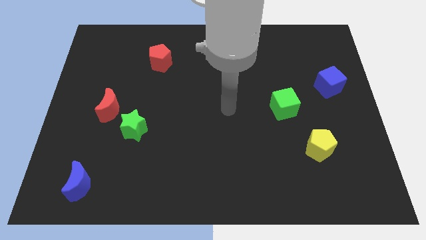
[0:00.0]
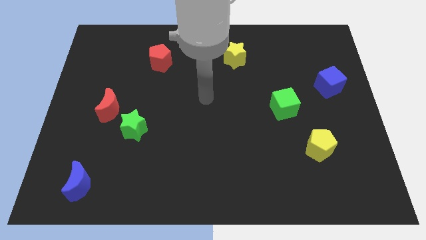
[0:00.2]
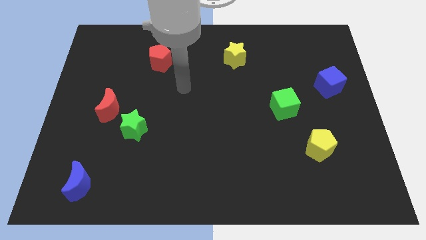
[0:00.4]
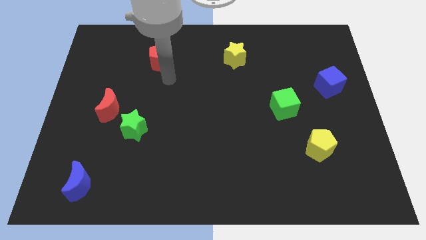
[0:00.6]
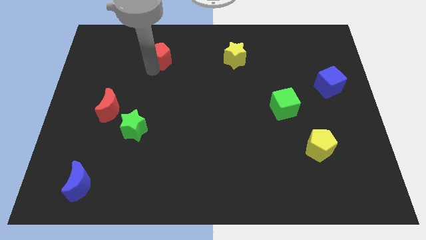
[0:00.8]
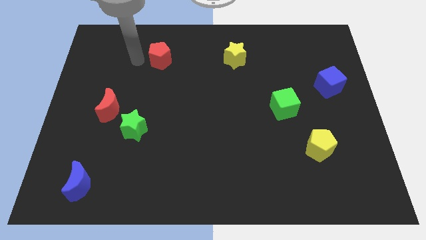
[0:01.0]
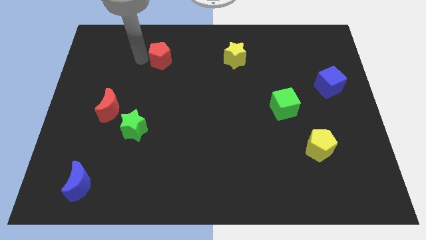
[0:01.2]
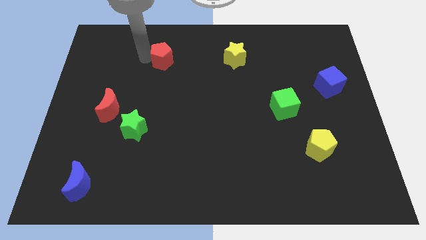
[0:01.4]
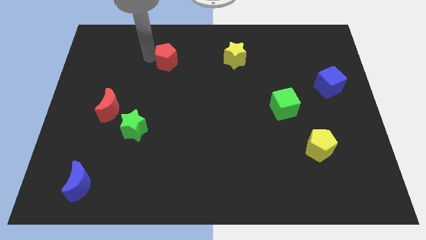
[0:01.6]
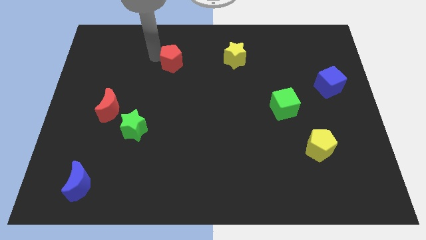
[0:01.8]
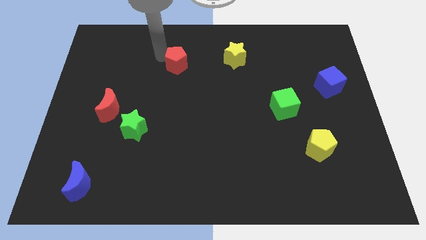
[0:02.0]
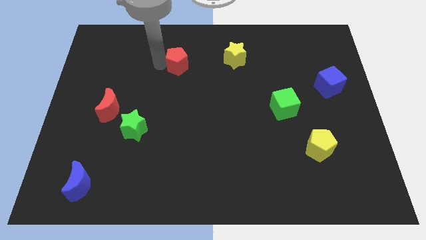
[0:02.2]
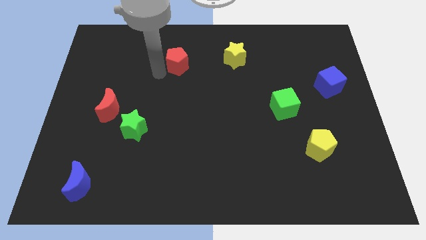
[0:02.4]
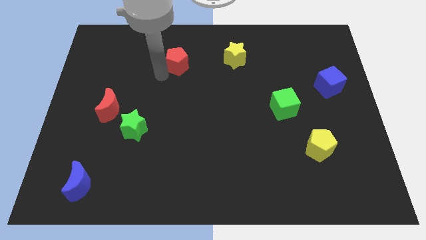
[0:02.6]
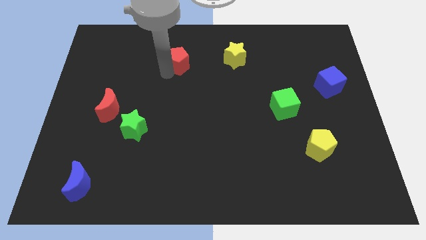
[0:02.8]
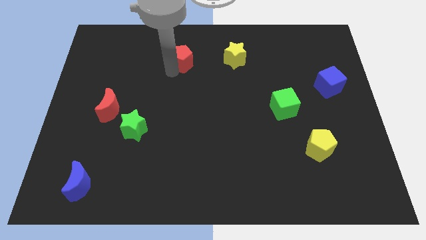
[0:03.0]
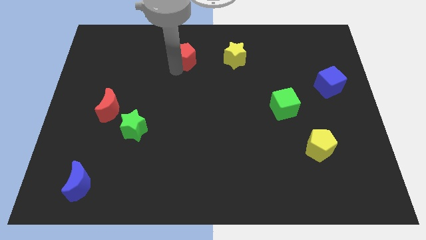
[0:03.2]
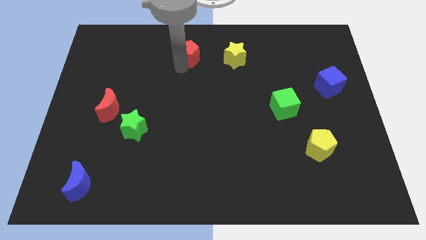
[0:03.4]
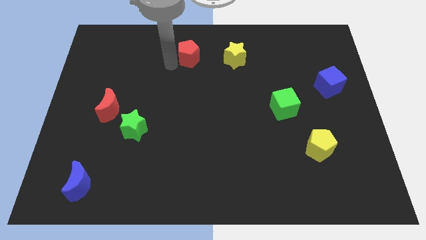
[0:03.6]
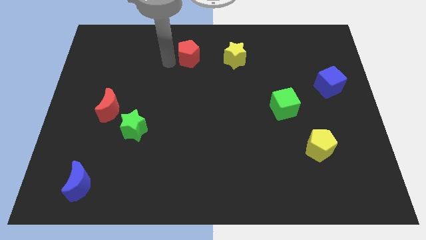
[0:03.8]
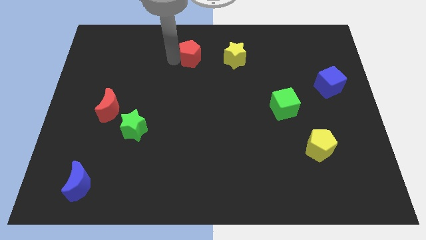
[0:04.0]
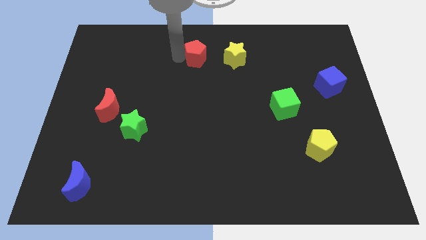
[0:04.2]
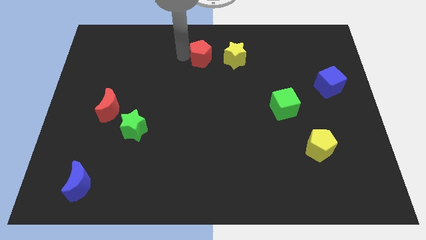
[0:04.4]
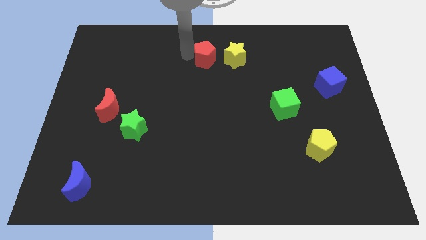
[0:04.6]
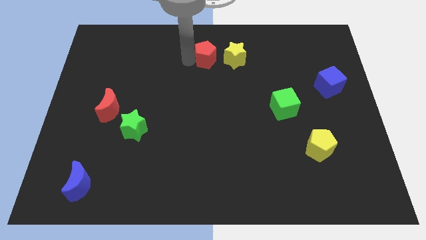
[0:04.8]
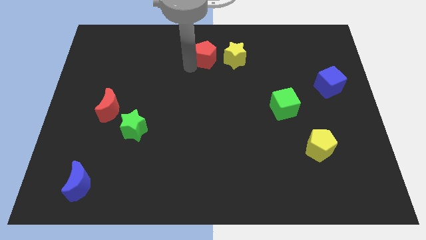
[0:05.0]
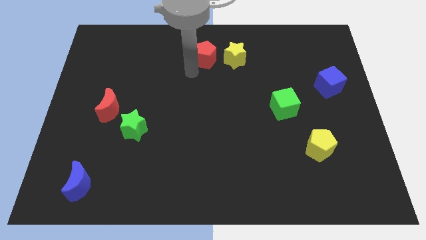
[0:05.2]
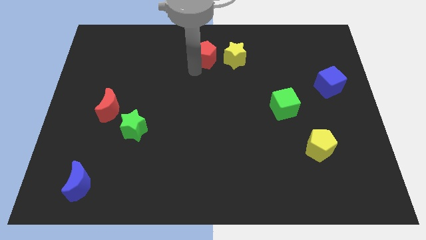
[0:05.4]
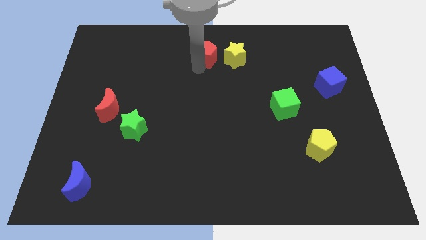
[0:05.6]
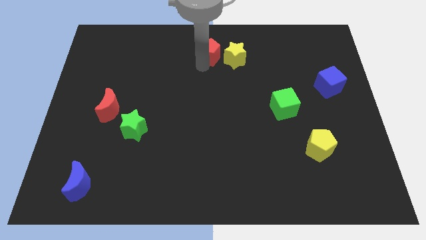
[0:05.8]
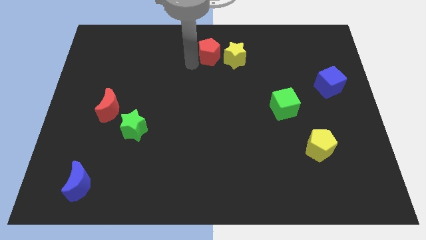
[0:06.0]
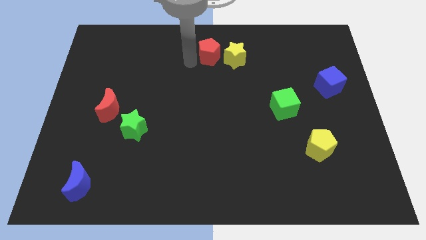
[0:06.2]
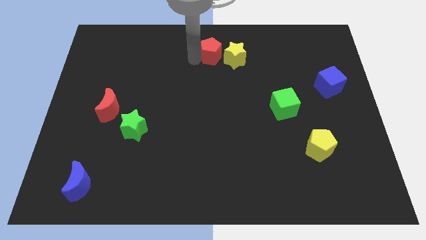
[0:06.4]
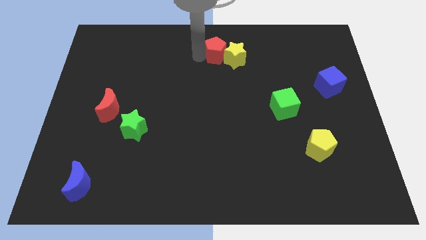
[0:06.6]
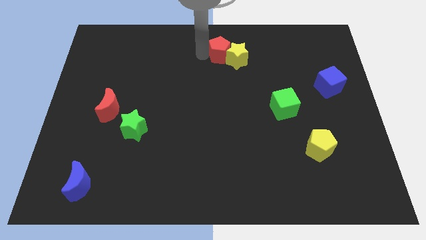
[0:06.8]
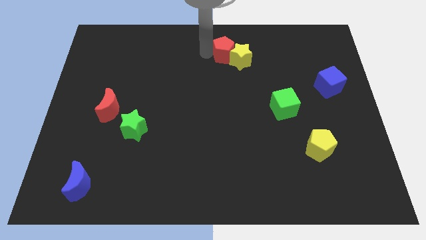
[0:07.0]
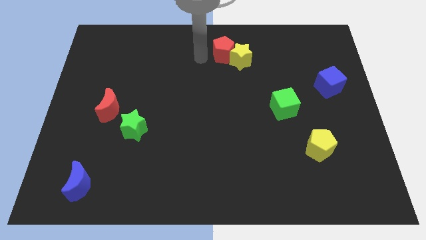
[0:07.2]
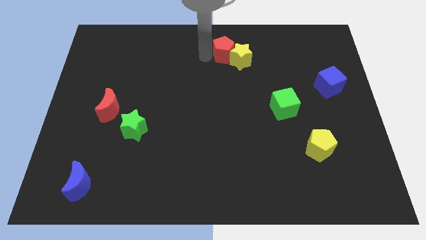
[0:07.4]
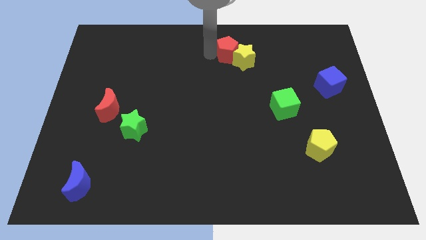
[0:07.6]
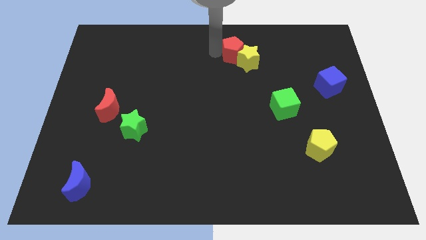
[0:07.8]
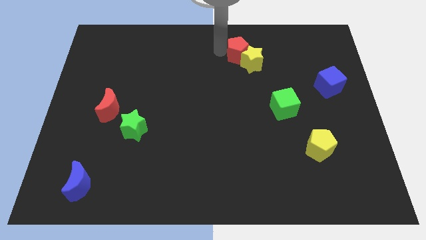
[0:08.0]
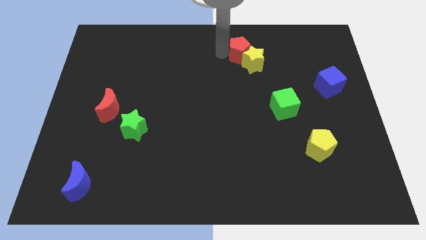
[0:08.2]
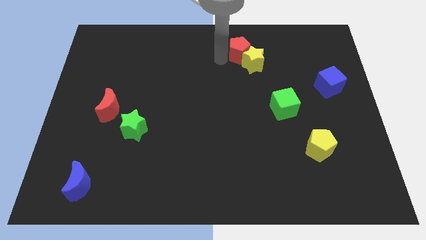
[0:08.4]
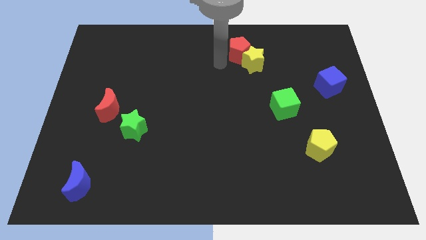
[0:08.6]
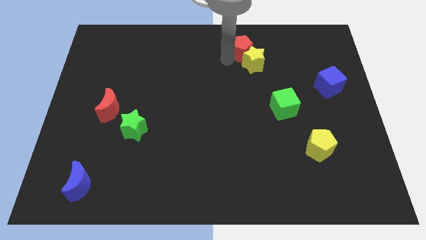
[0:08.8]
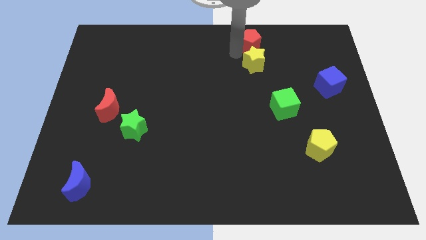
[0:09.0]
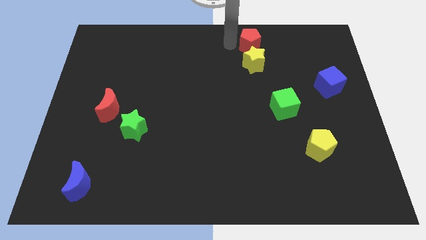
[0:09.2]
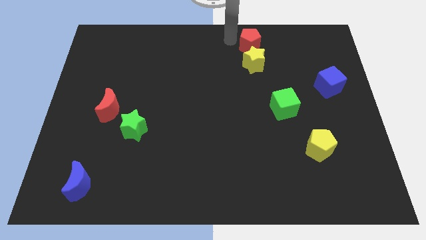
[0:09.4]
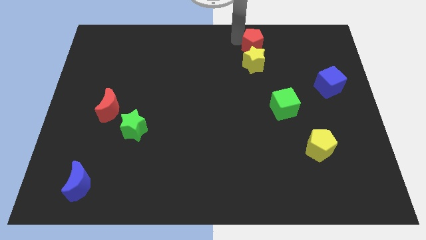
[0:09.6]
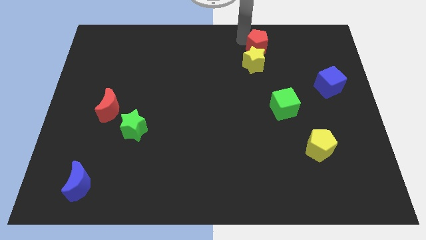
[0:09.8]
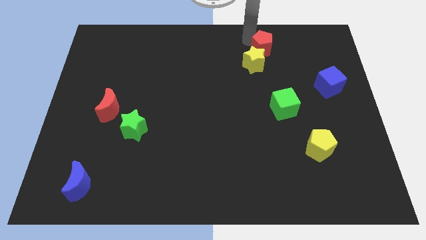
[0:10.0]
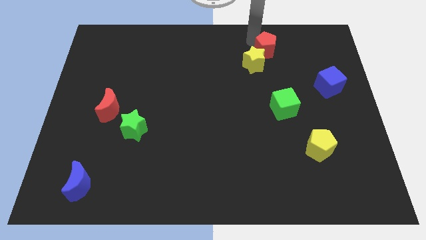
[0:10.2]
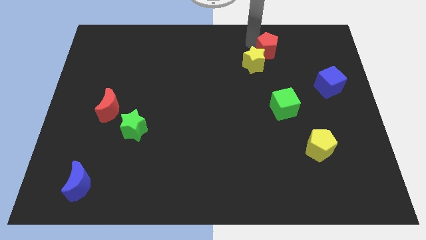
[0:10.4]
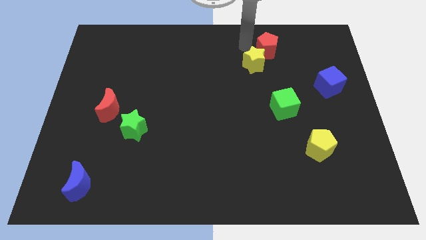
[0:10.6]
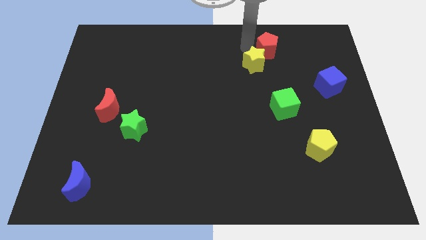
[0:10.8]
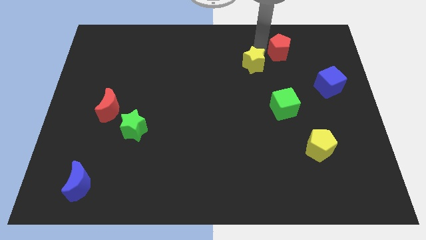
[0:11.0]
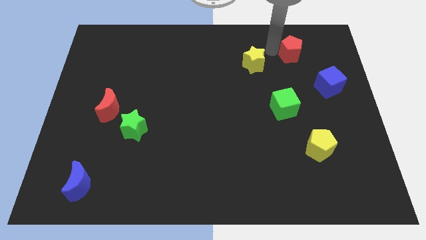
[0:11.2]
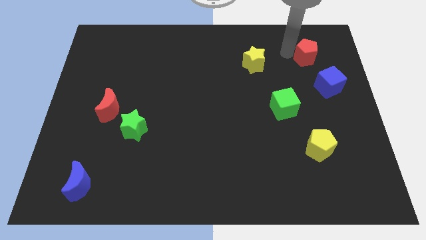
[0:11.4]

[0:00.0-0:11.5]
push the red pentagon above the blue cube

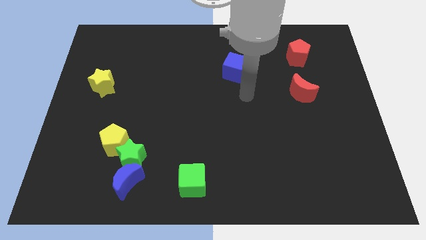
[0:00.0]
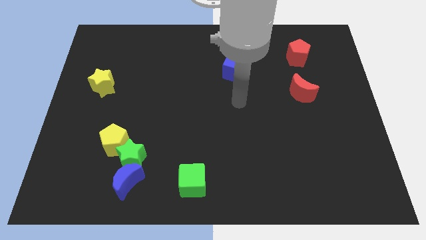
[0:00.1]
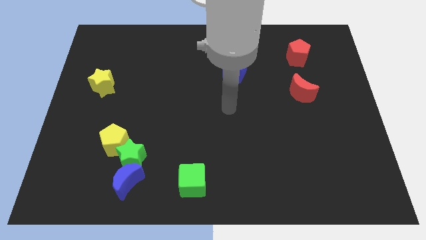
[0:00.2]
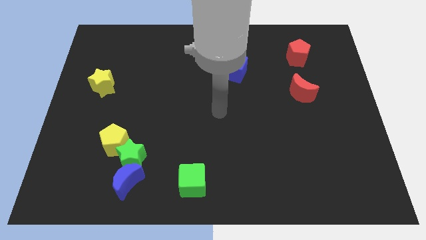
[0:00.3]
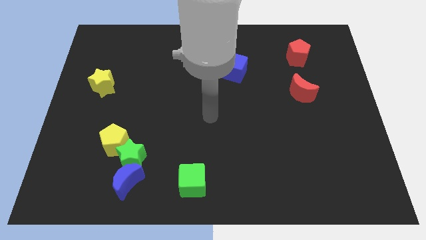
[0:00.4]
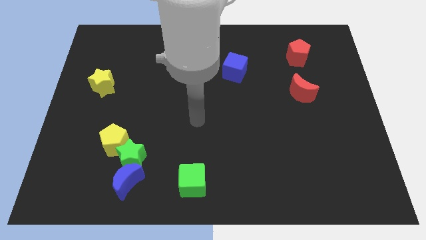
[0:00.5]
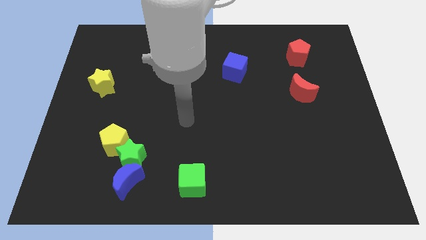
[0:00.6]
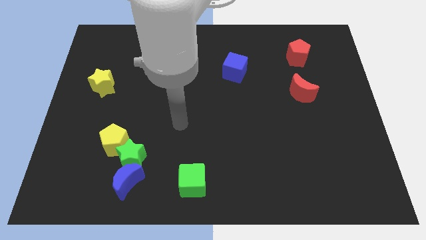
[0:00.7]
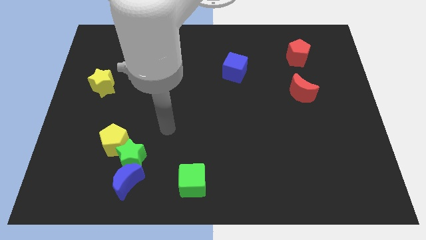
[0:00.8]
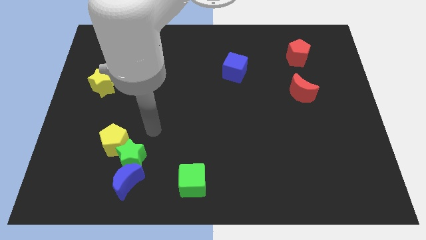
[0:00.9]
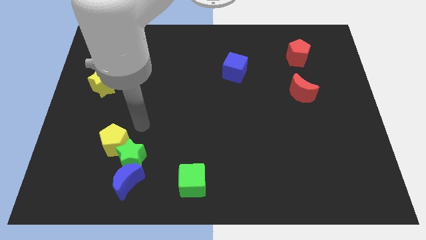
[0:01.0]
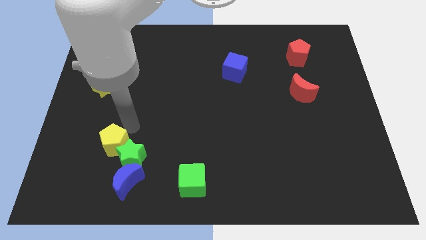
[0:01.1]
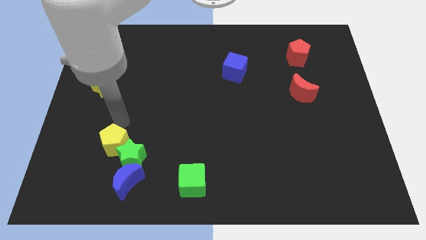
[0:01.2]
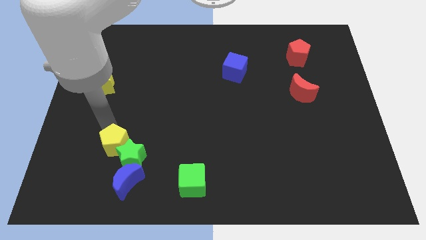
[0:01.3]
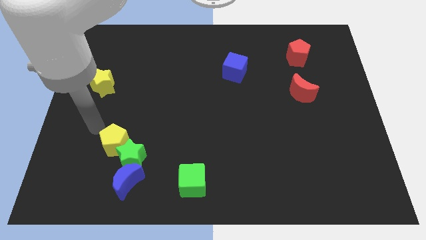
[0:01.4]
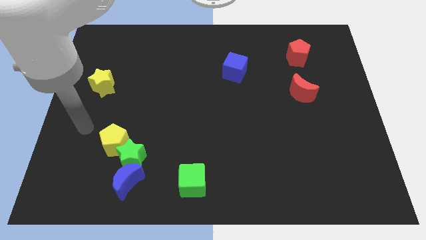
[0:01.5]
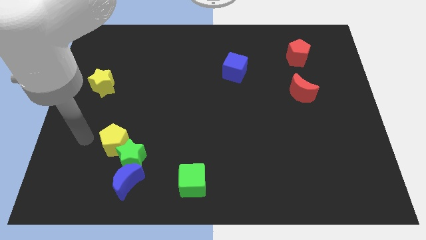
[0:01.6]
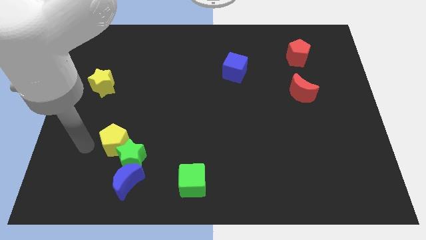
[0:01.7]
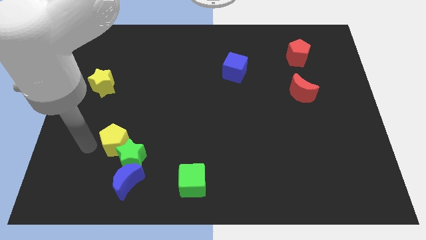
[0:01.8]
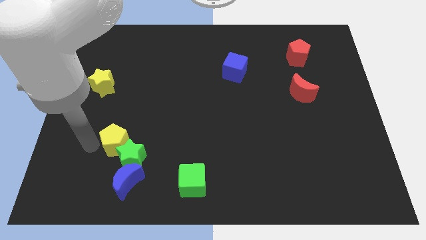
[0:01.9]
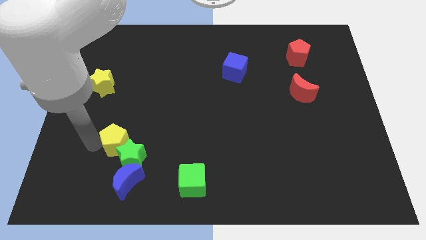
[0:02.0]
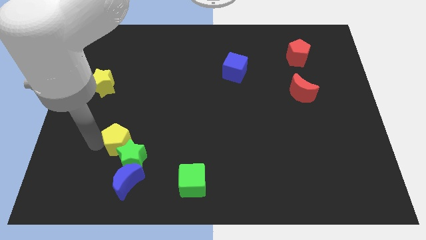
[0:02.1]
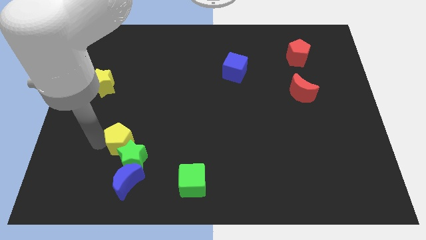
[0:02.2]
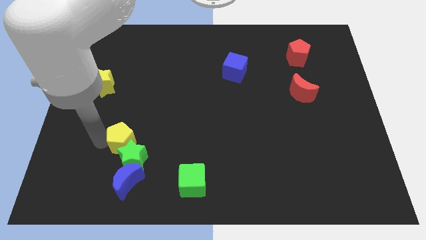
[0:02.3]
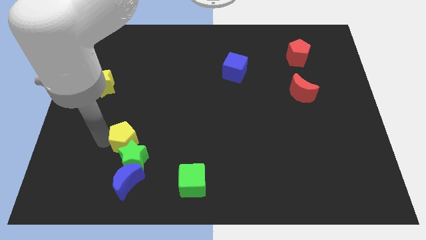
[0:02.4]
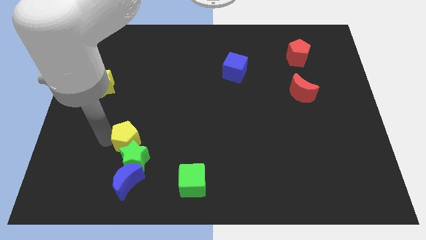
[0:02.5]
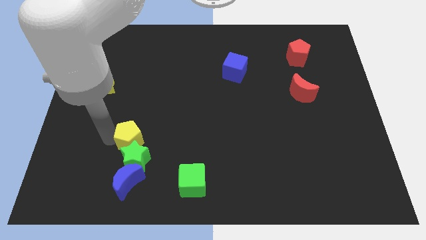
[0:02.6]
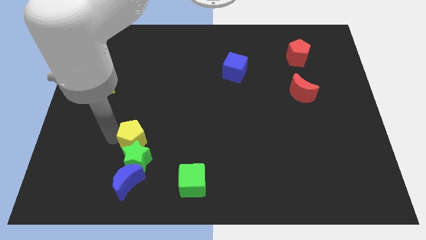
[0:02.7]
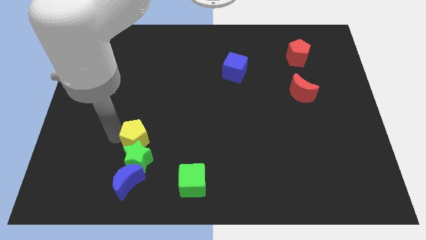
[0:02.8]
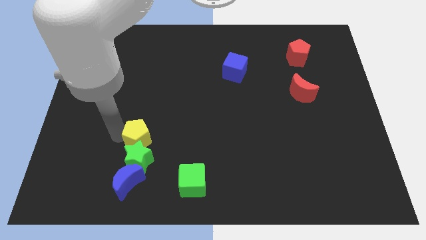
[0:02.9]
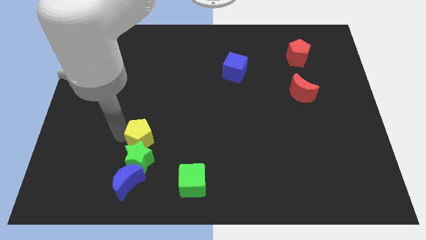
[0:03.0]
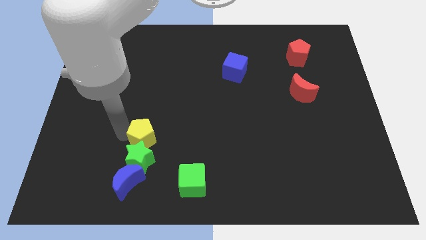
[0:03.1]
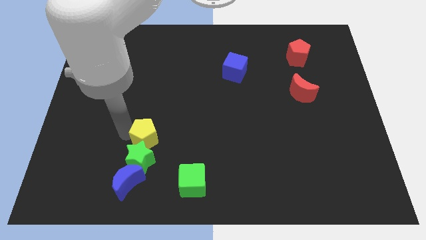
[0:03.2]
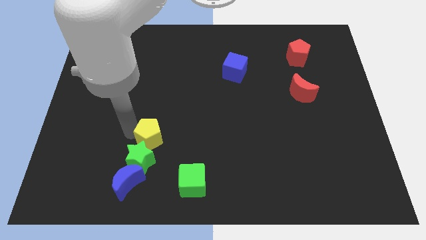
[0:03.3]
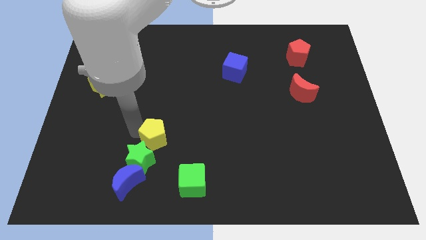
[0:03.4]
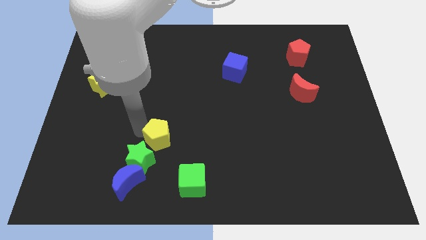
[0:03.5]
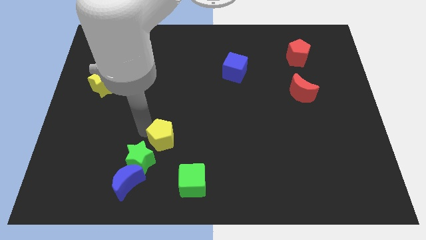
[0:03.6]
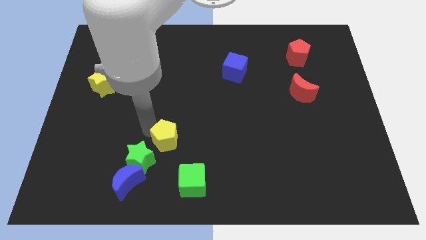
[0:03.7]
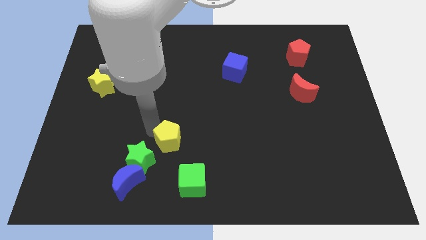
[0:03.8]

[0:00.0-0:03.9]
slide the yellow pentagon right of the green star
